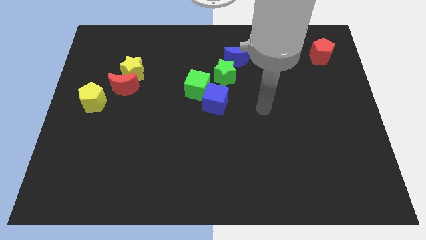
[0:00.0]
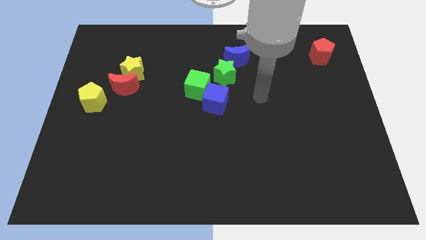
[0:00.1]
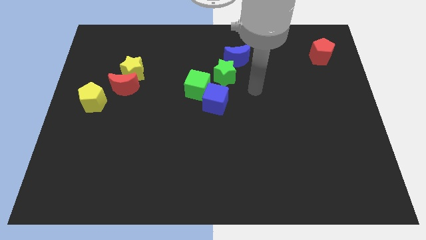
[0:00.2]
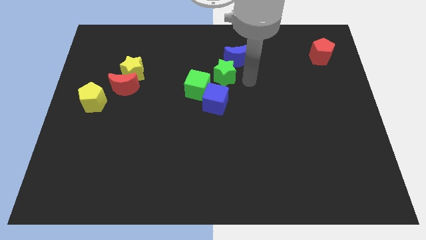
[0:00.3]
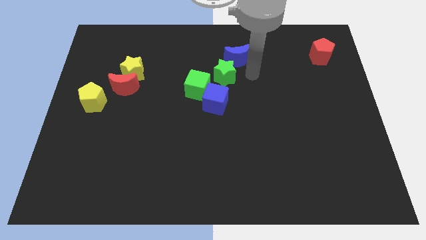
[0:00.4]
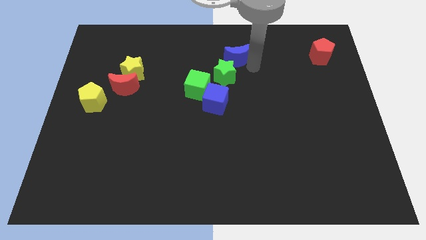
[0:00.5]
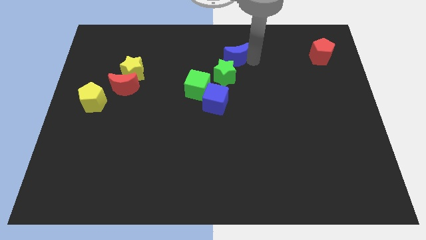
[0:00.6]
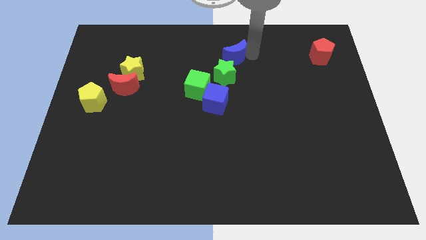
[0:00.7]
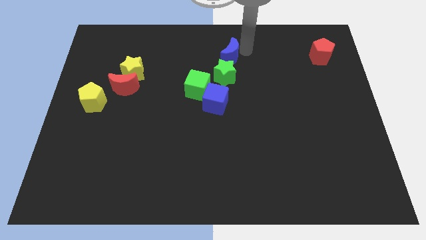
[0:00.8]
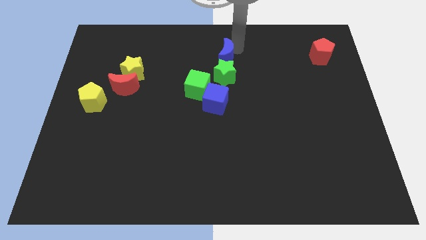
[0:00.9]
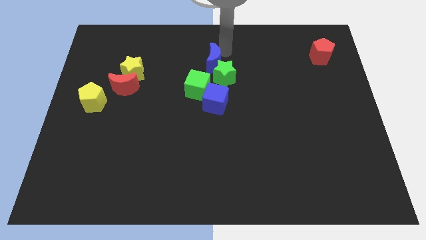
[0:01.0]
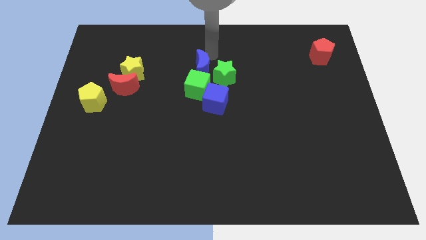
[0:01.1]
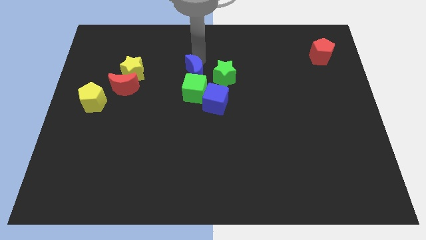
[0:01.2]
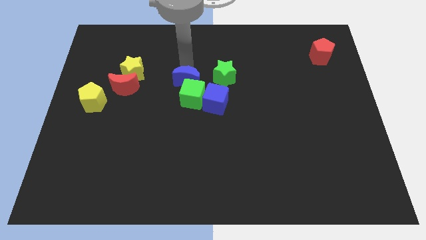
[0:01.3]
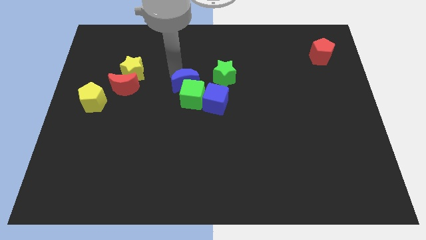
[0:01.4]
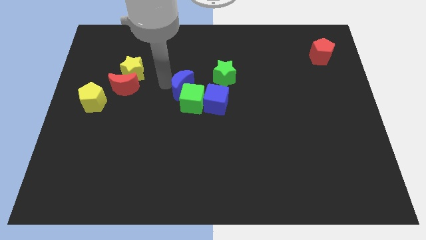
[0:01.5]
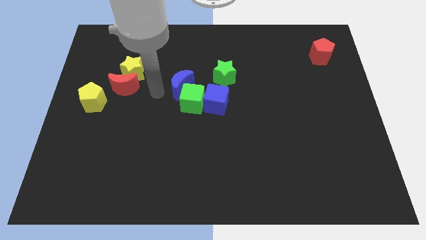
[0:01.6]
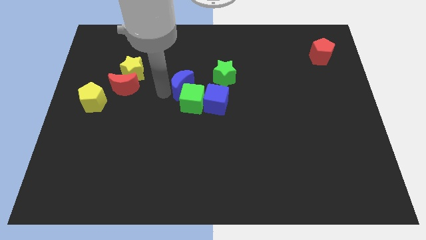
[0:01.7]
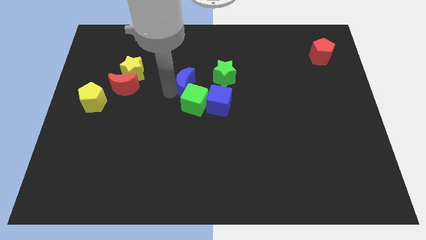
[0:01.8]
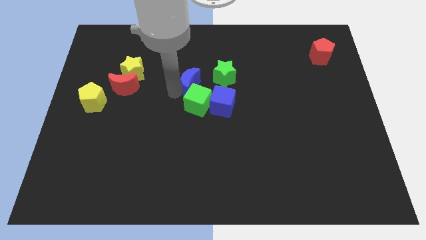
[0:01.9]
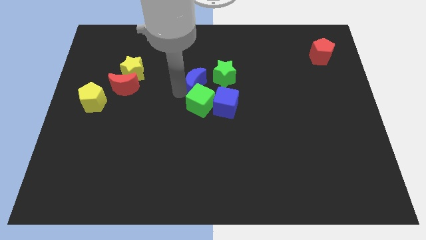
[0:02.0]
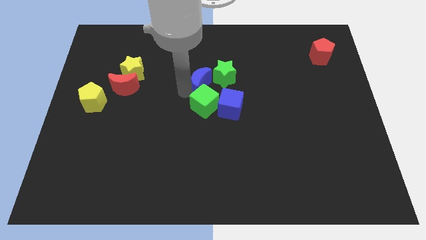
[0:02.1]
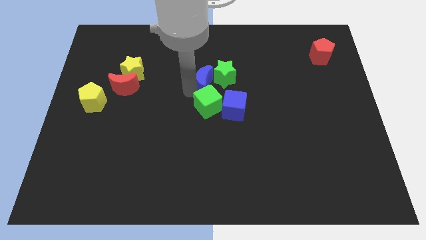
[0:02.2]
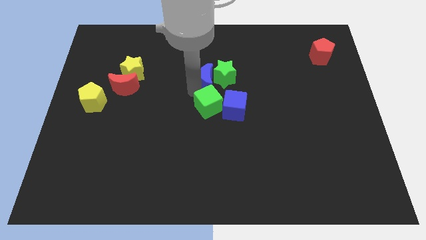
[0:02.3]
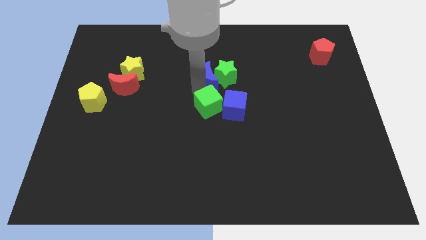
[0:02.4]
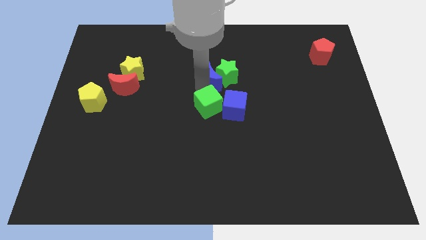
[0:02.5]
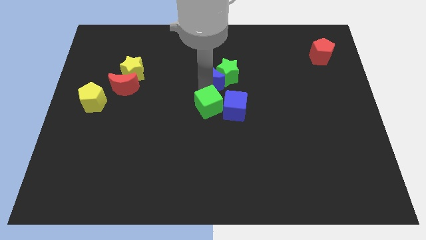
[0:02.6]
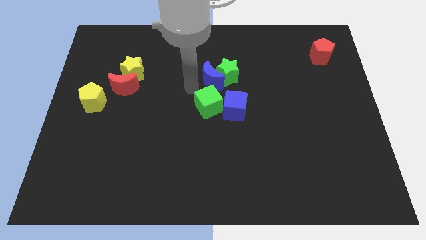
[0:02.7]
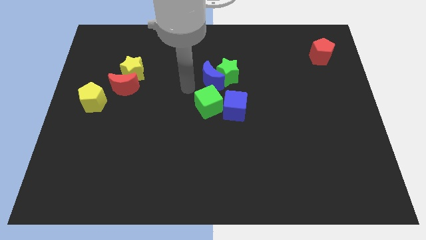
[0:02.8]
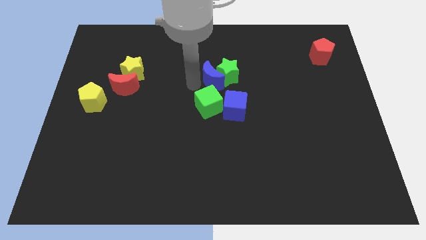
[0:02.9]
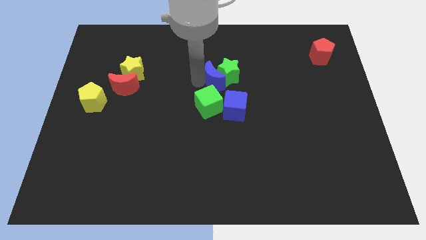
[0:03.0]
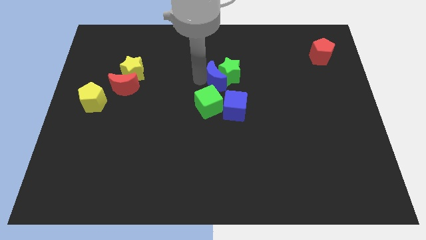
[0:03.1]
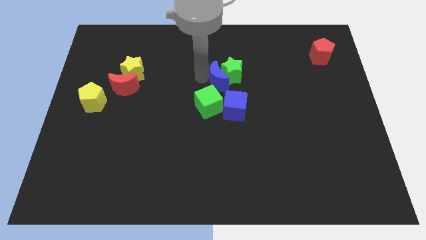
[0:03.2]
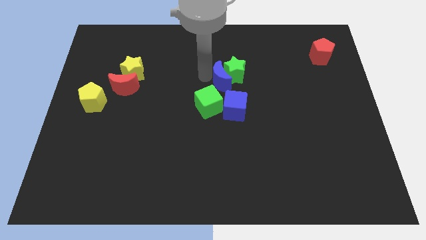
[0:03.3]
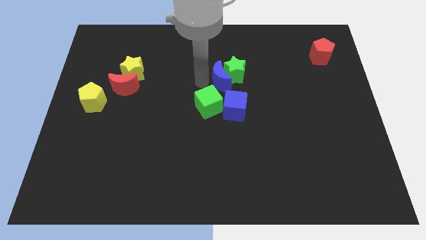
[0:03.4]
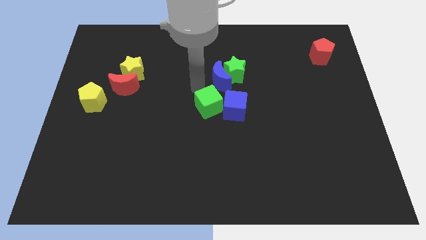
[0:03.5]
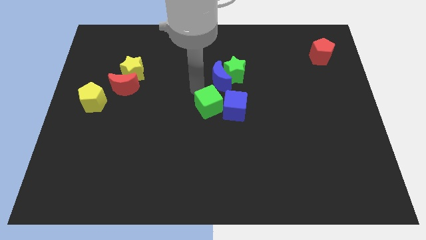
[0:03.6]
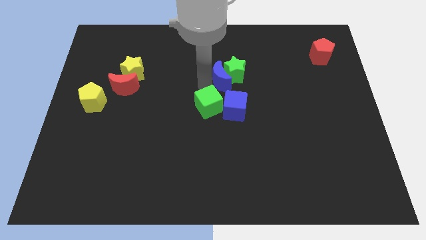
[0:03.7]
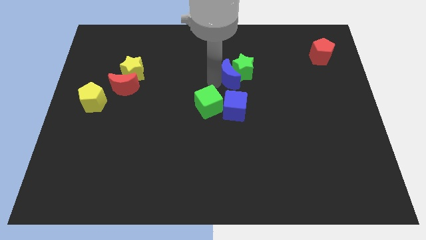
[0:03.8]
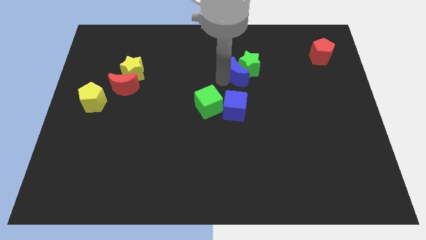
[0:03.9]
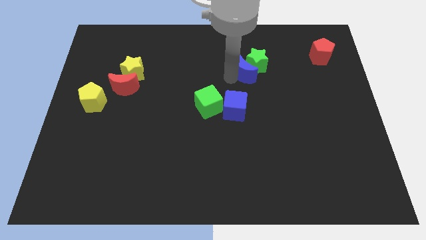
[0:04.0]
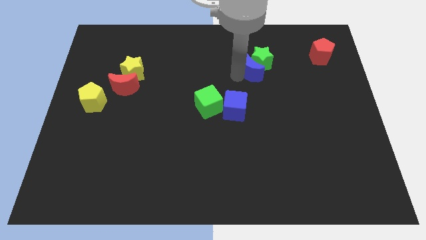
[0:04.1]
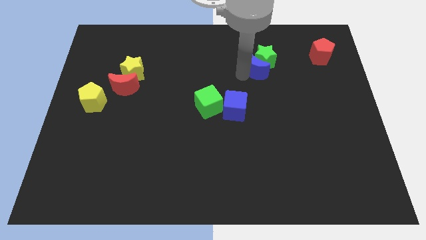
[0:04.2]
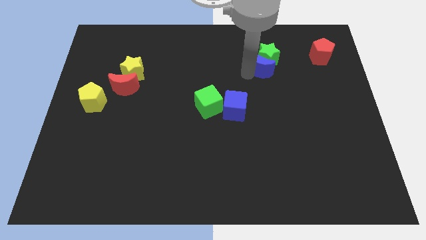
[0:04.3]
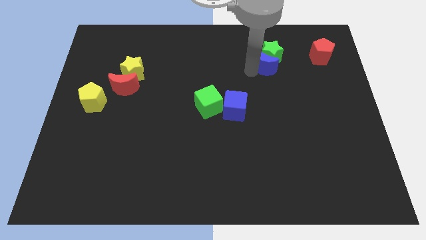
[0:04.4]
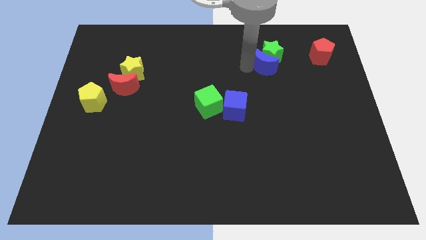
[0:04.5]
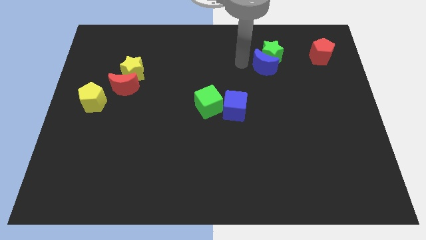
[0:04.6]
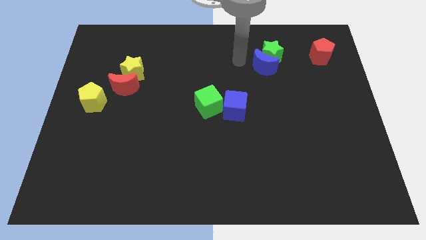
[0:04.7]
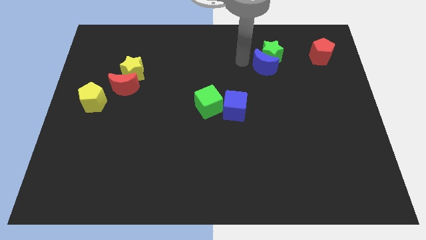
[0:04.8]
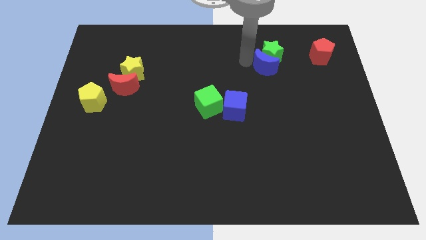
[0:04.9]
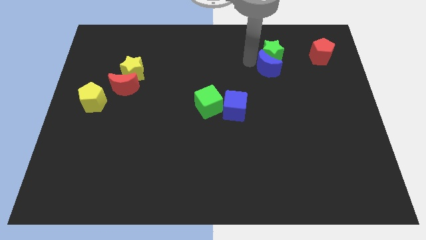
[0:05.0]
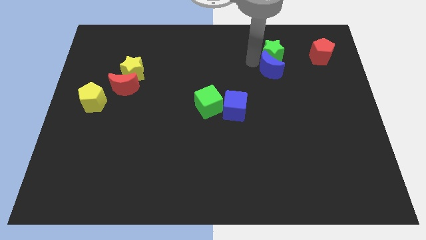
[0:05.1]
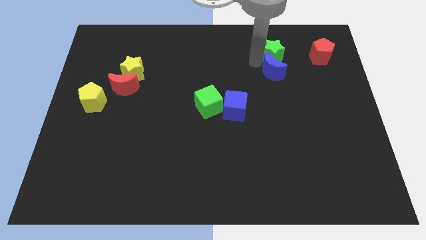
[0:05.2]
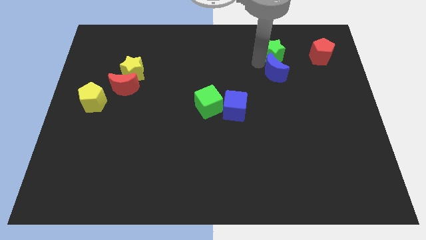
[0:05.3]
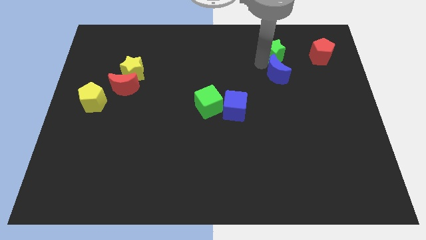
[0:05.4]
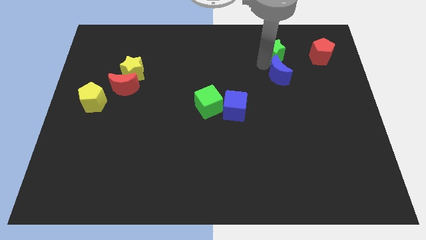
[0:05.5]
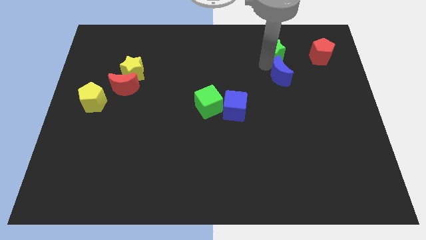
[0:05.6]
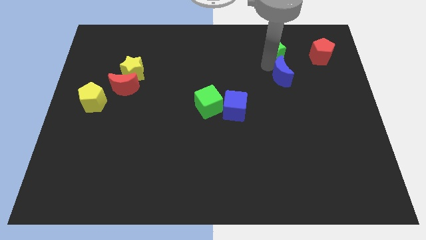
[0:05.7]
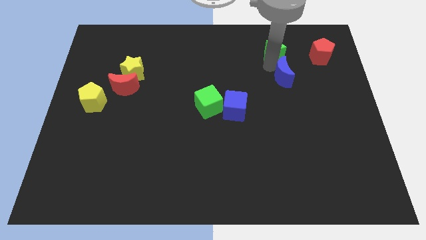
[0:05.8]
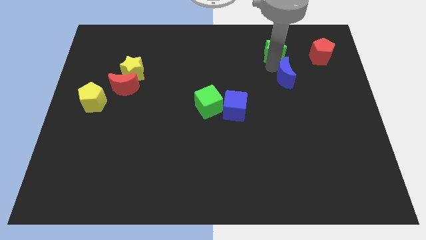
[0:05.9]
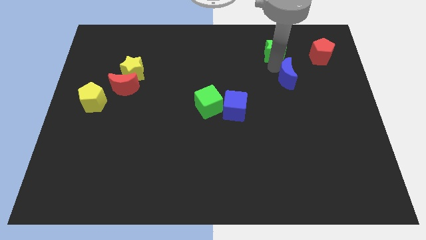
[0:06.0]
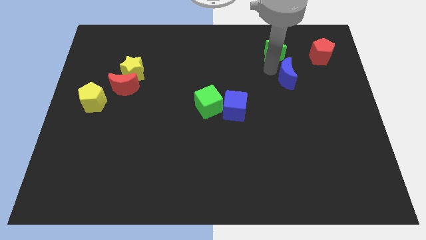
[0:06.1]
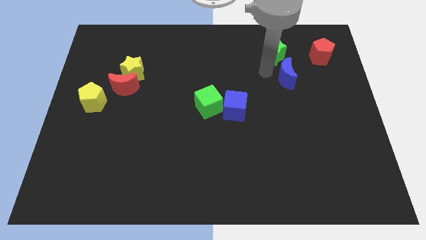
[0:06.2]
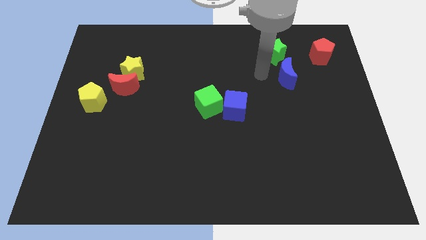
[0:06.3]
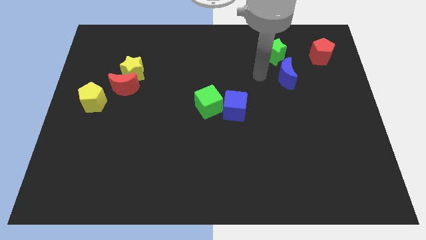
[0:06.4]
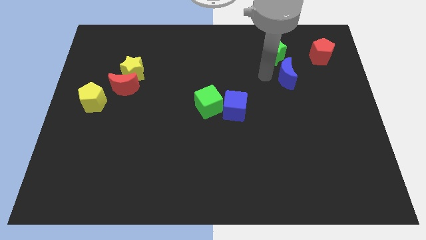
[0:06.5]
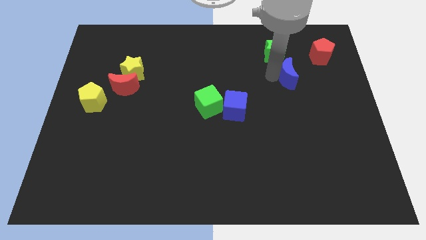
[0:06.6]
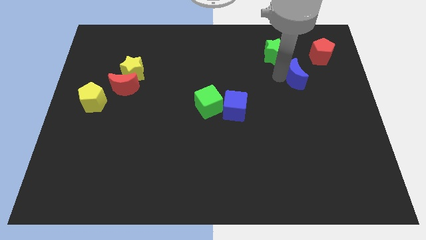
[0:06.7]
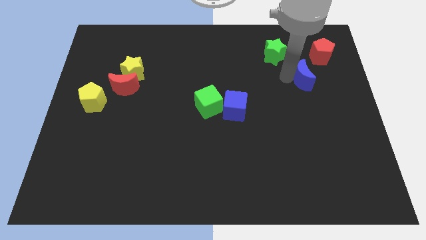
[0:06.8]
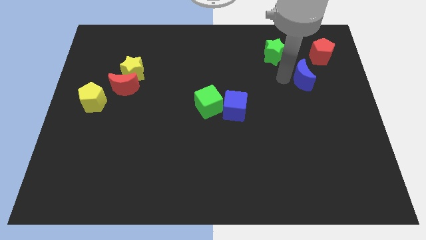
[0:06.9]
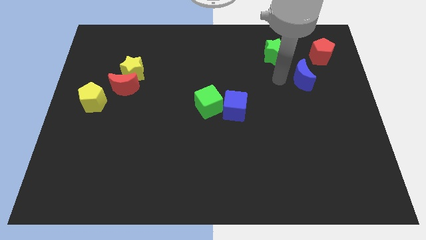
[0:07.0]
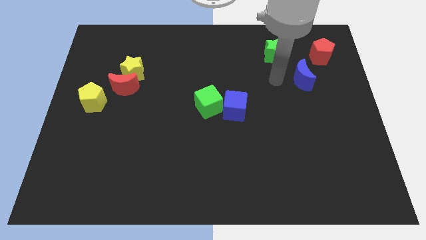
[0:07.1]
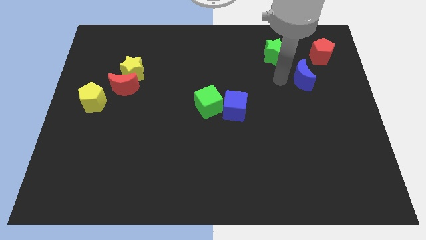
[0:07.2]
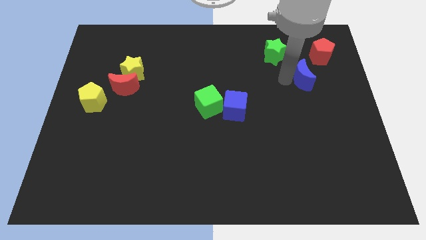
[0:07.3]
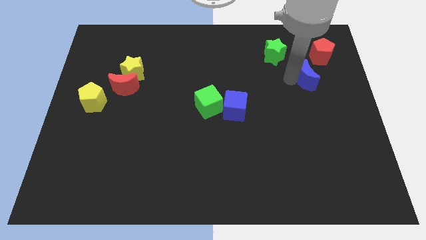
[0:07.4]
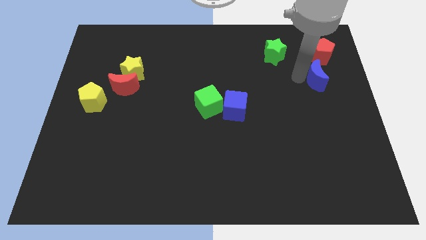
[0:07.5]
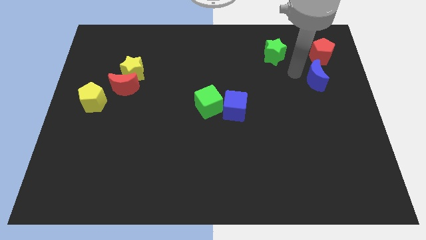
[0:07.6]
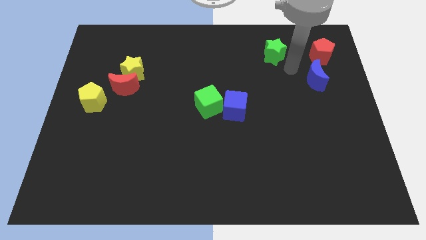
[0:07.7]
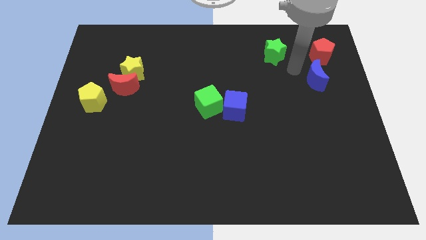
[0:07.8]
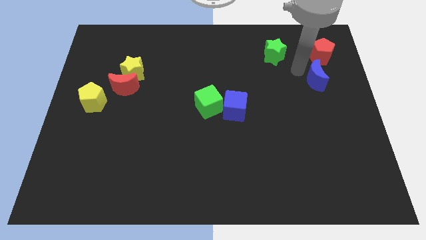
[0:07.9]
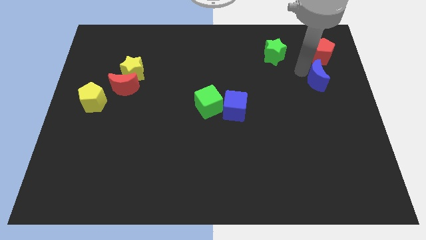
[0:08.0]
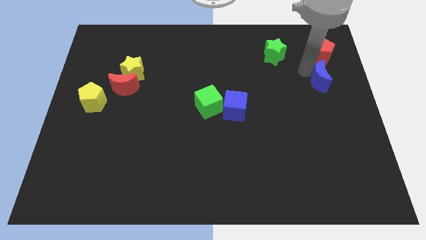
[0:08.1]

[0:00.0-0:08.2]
slide the blue moon to the center right
